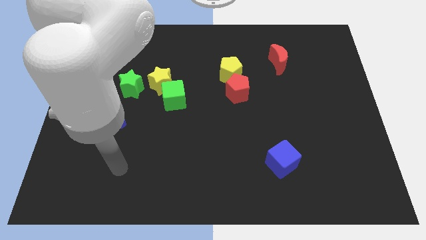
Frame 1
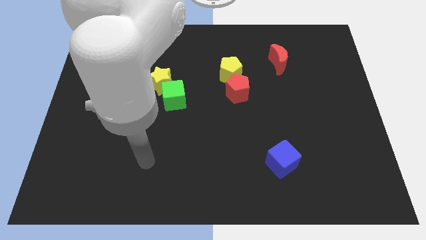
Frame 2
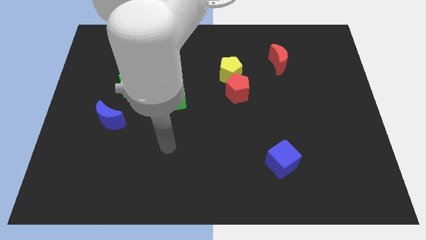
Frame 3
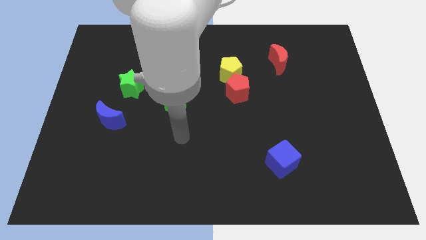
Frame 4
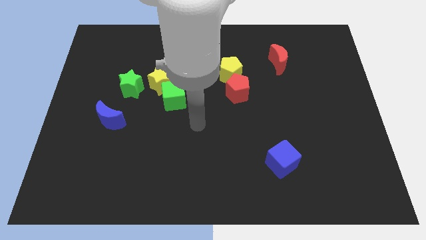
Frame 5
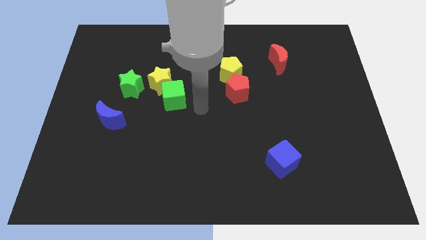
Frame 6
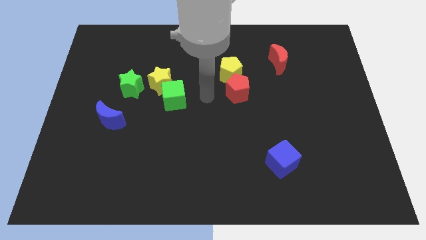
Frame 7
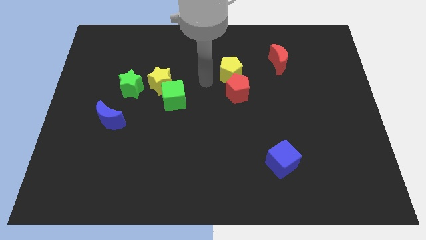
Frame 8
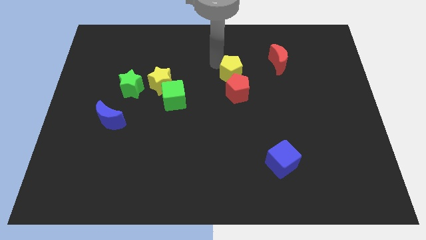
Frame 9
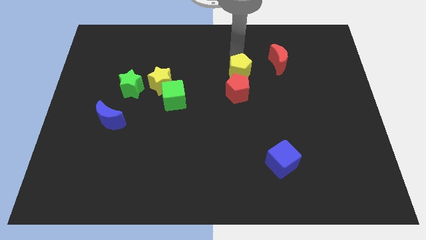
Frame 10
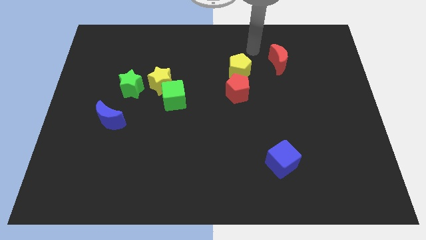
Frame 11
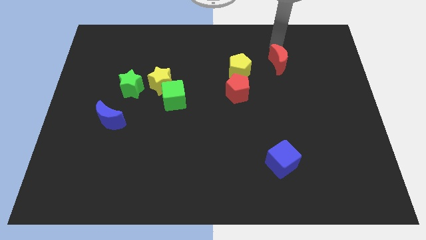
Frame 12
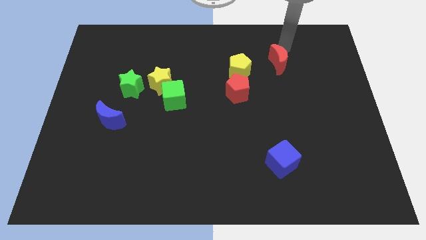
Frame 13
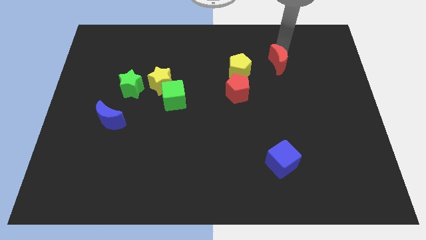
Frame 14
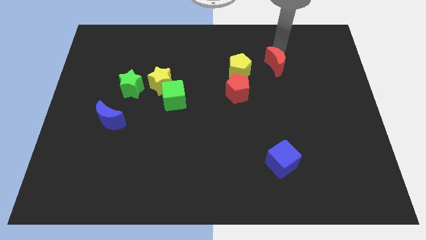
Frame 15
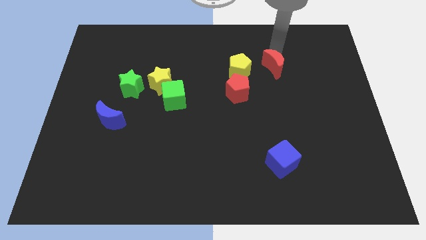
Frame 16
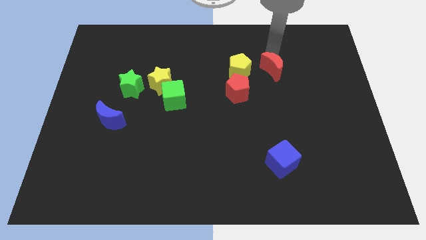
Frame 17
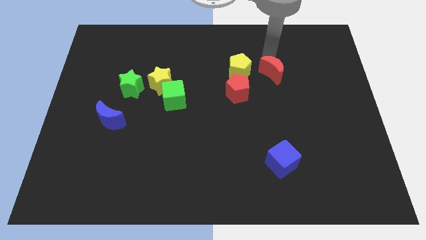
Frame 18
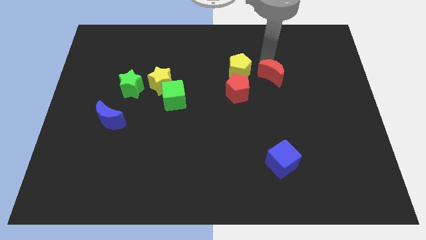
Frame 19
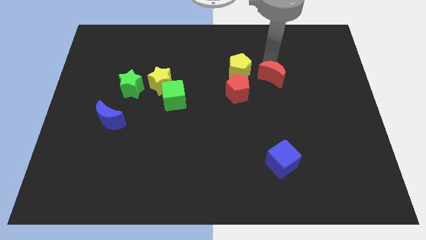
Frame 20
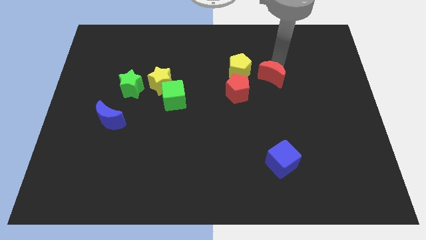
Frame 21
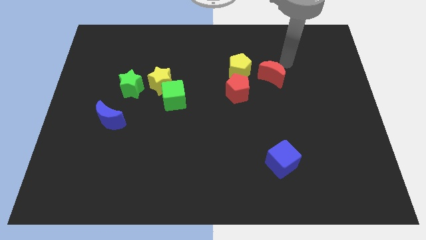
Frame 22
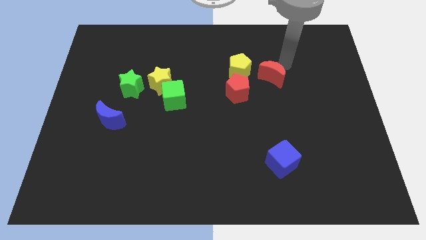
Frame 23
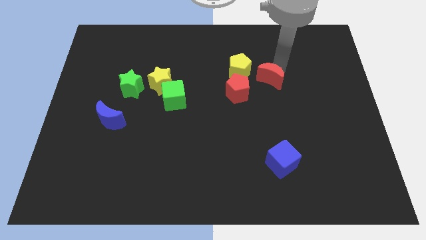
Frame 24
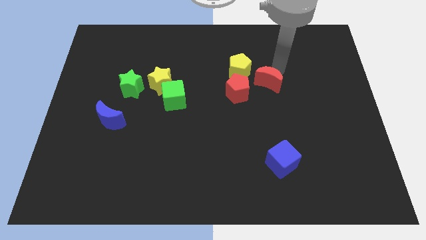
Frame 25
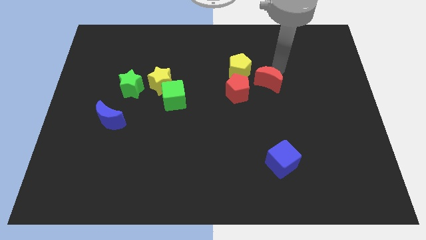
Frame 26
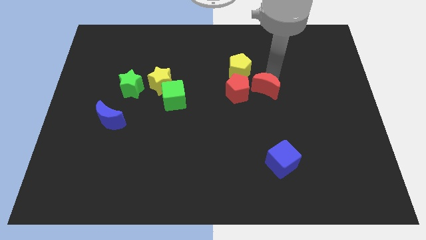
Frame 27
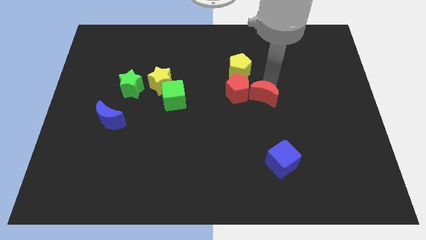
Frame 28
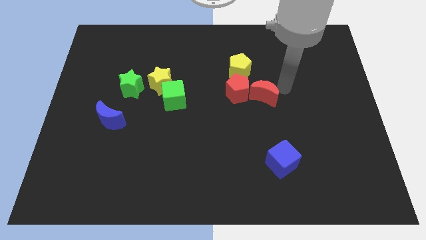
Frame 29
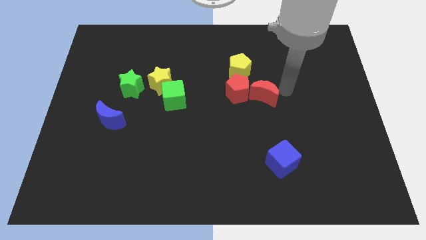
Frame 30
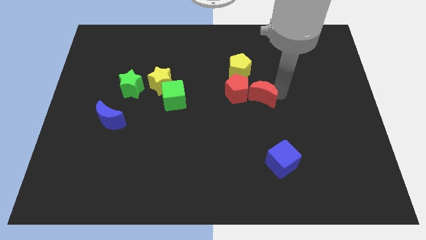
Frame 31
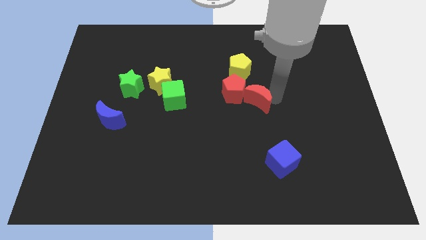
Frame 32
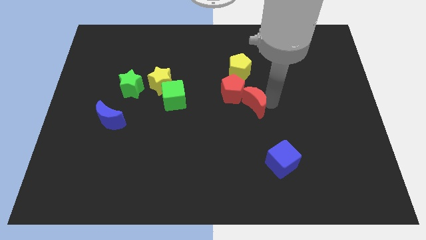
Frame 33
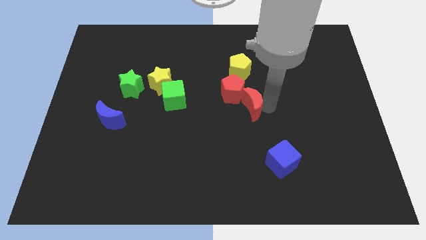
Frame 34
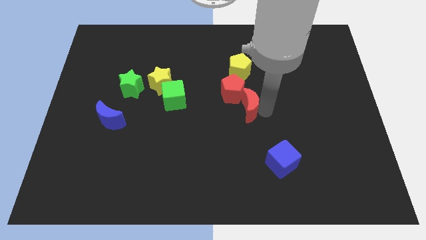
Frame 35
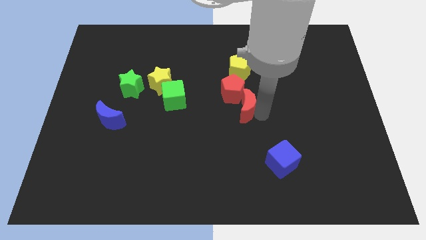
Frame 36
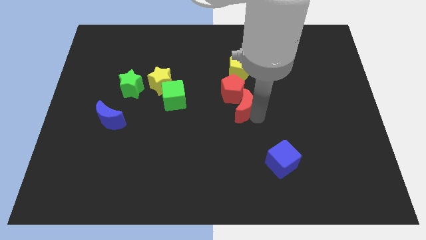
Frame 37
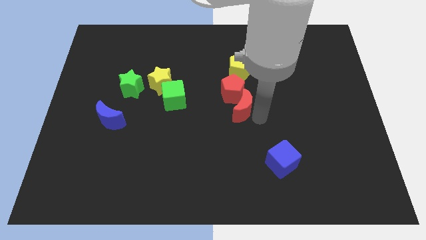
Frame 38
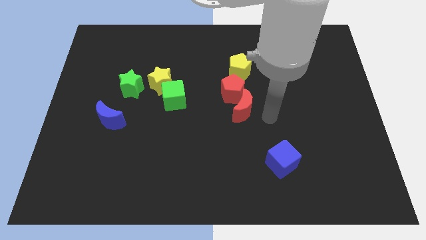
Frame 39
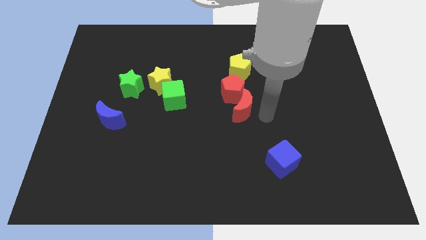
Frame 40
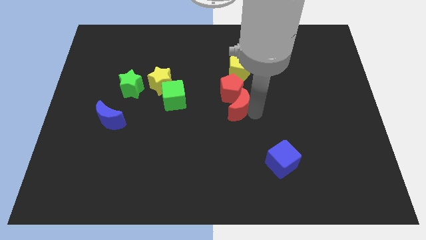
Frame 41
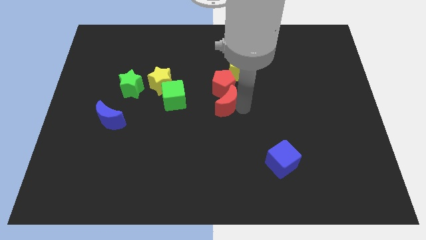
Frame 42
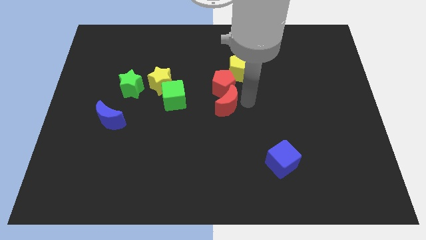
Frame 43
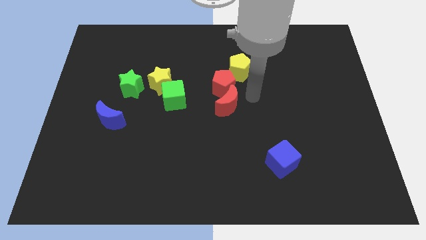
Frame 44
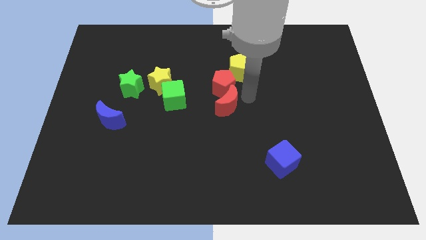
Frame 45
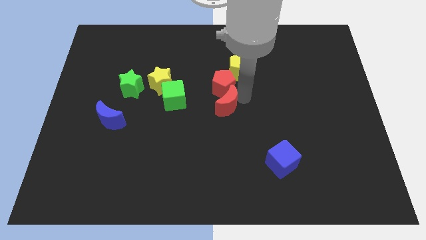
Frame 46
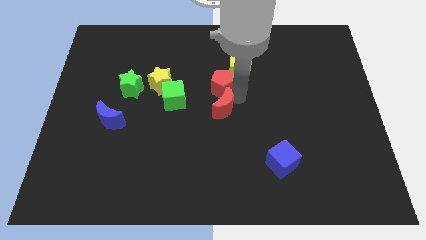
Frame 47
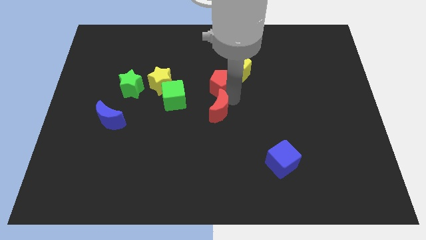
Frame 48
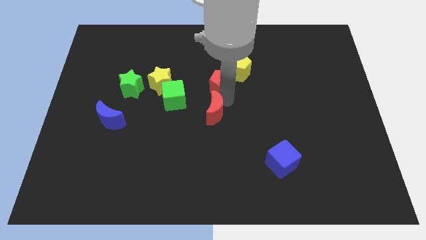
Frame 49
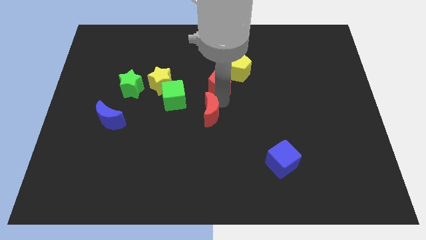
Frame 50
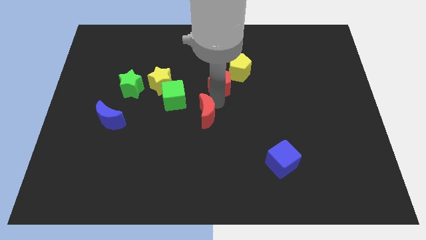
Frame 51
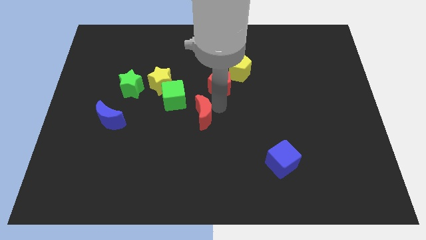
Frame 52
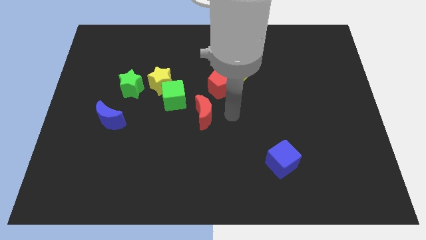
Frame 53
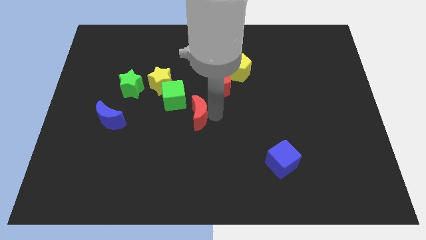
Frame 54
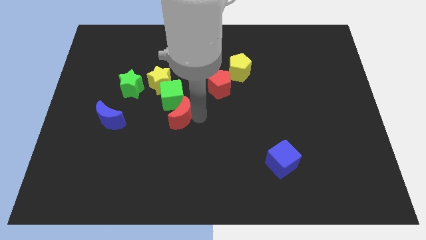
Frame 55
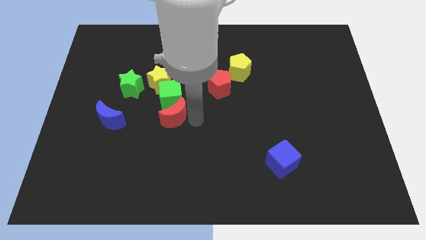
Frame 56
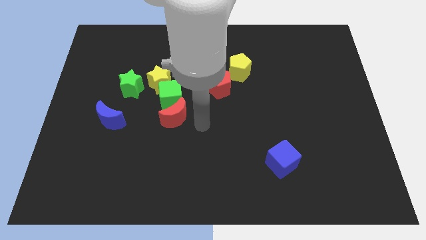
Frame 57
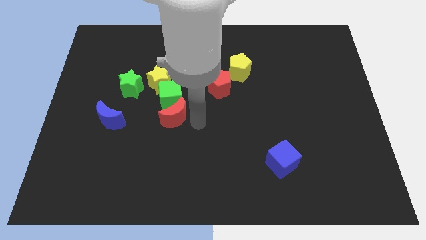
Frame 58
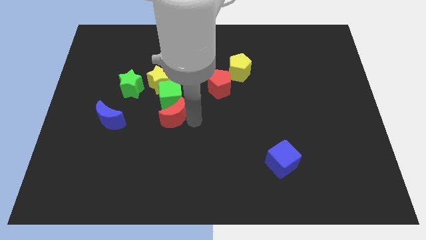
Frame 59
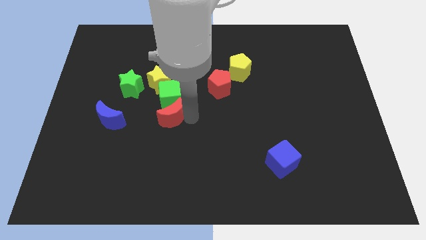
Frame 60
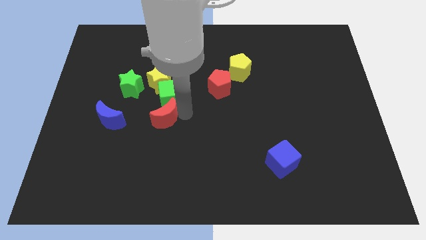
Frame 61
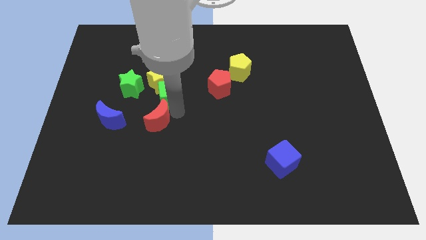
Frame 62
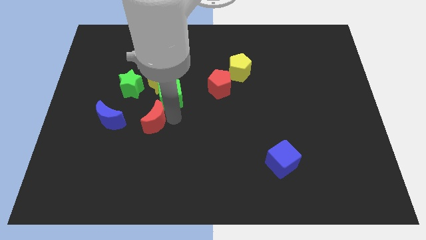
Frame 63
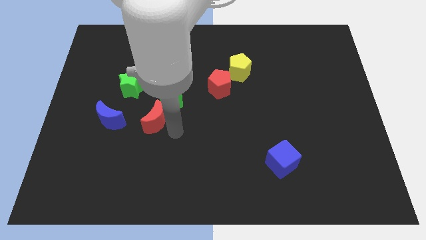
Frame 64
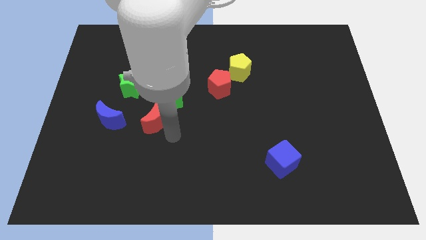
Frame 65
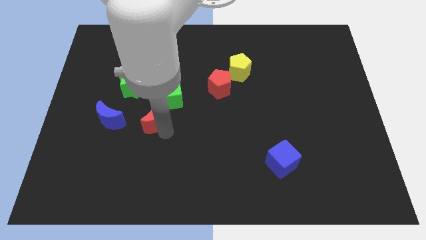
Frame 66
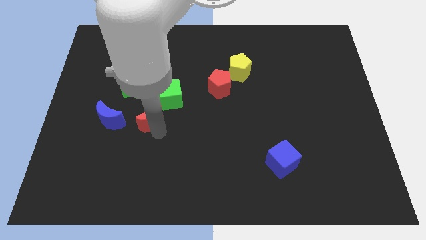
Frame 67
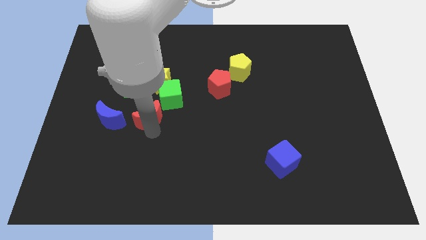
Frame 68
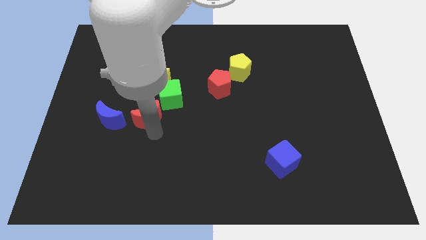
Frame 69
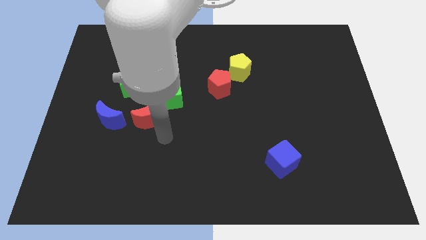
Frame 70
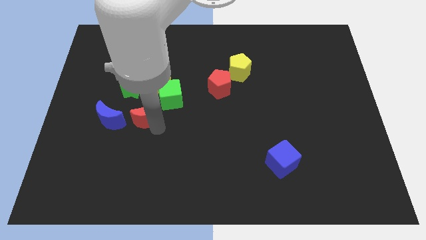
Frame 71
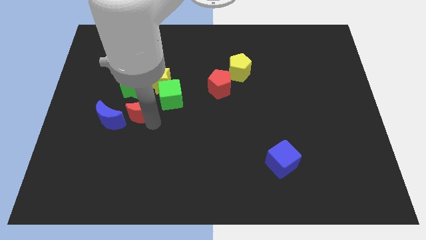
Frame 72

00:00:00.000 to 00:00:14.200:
slide the red moon diagonally up and to the right of the blue moon

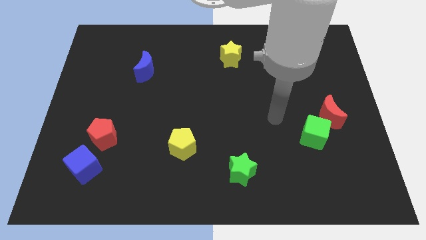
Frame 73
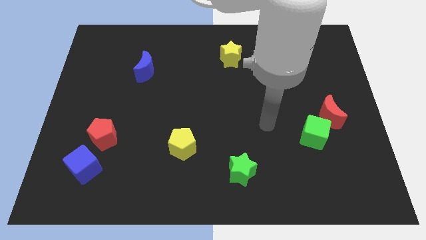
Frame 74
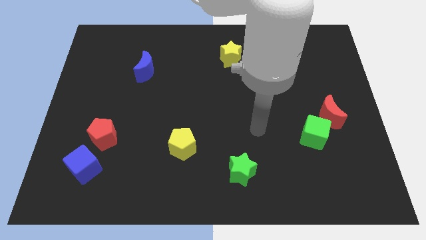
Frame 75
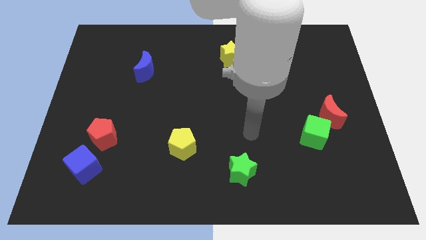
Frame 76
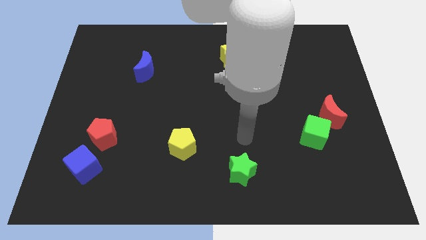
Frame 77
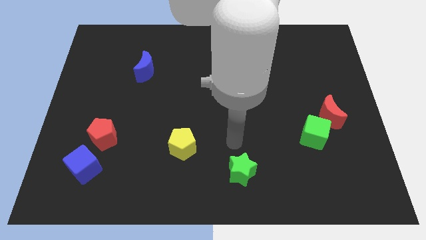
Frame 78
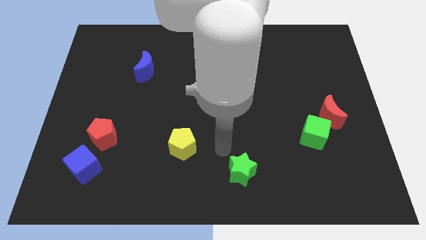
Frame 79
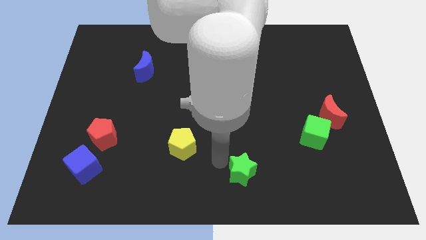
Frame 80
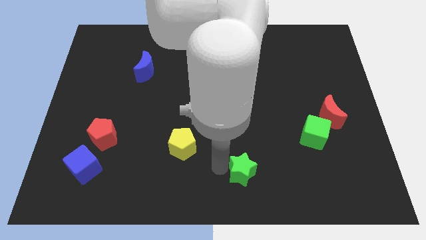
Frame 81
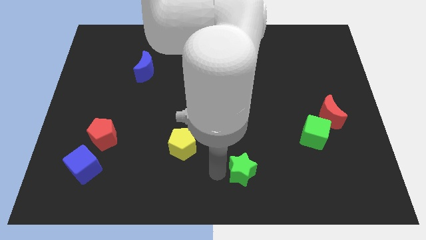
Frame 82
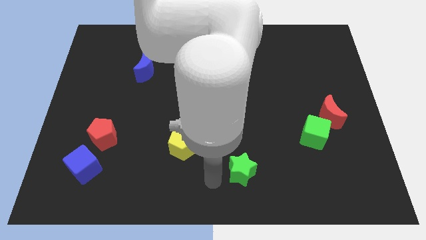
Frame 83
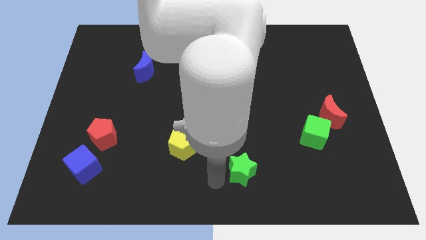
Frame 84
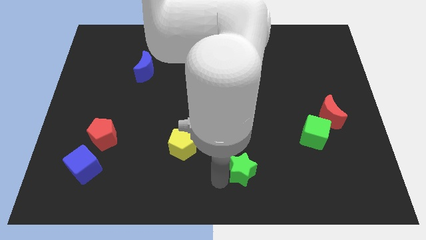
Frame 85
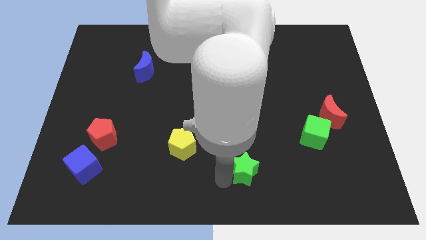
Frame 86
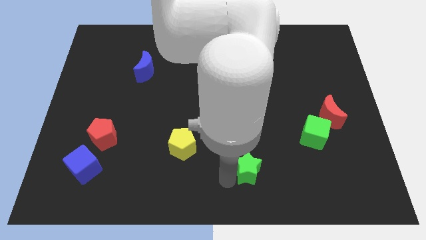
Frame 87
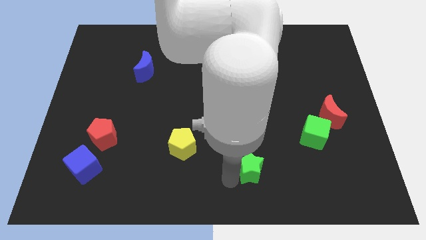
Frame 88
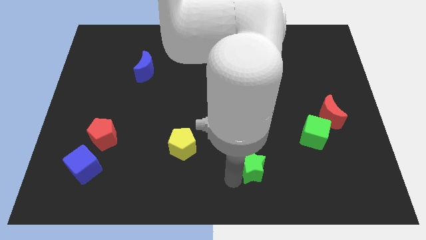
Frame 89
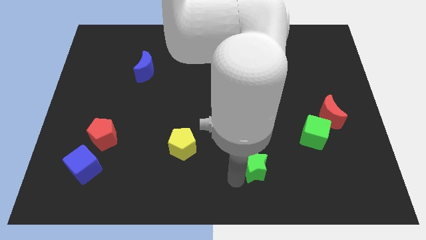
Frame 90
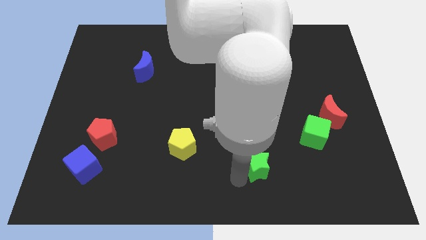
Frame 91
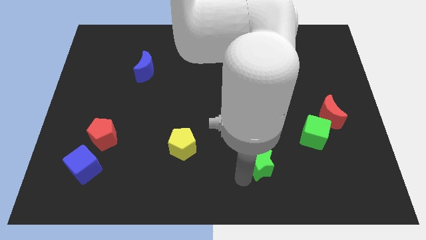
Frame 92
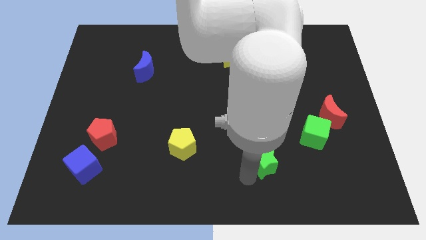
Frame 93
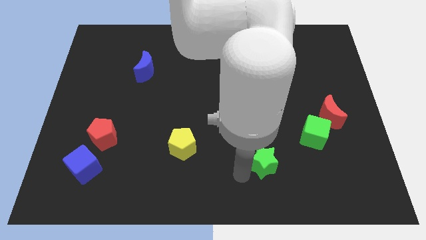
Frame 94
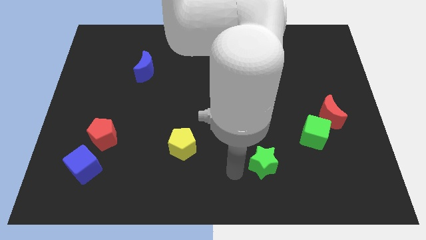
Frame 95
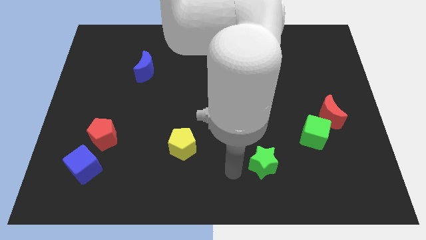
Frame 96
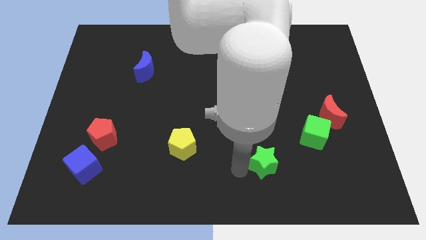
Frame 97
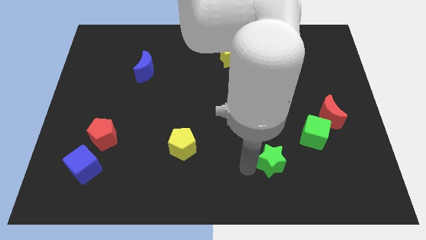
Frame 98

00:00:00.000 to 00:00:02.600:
move the green star to the bottom left of the green cube
